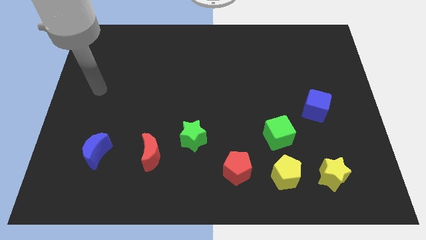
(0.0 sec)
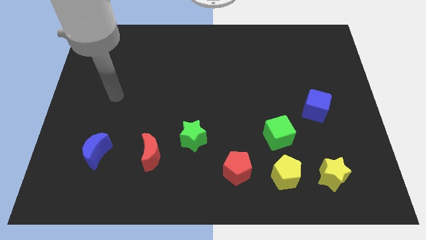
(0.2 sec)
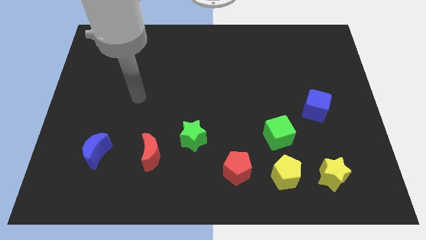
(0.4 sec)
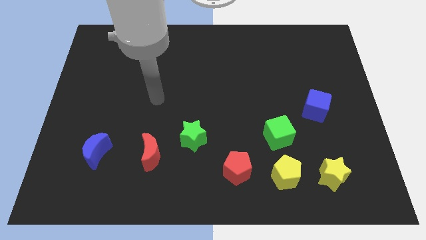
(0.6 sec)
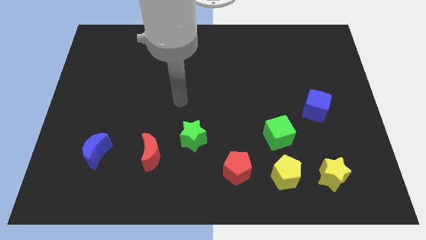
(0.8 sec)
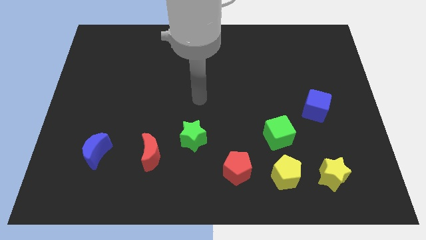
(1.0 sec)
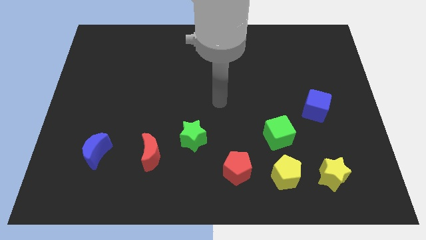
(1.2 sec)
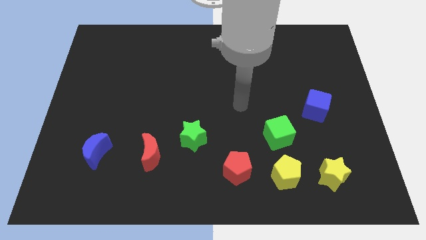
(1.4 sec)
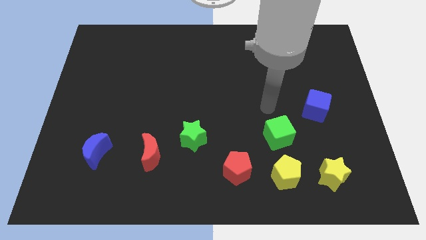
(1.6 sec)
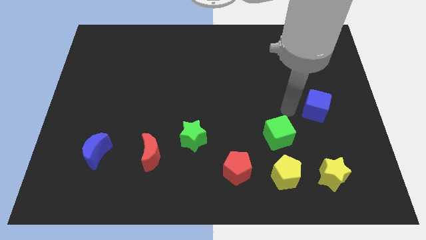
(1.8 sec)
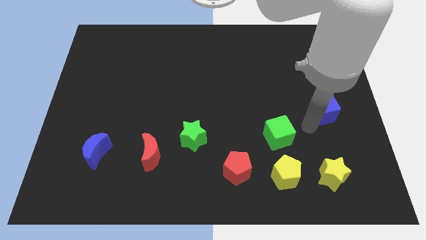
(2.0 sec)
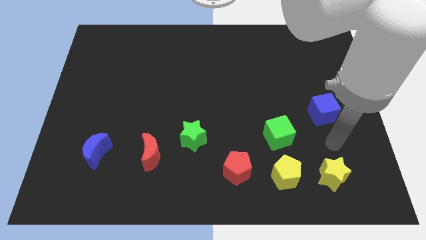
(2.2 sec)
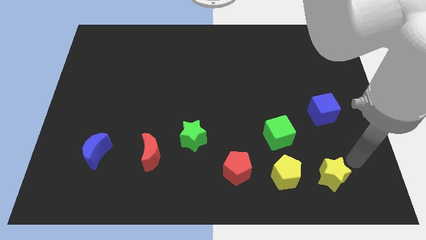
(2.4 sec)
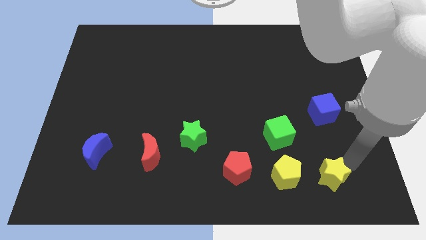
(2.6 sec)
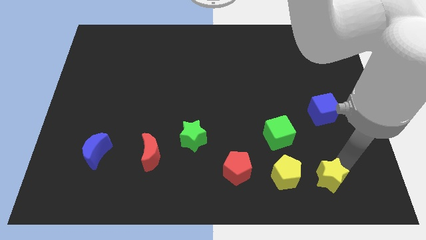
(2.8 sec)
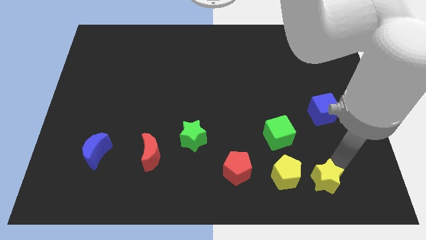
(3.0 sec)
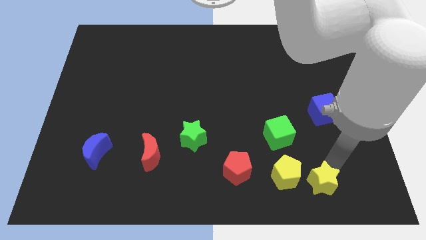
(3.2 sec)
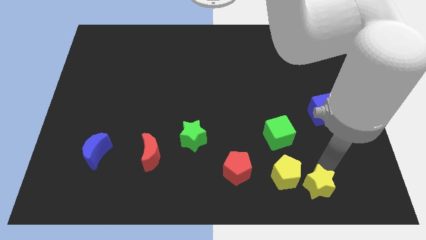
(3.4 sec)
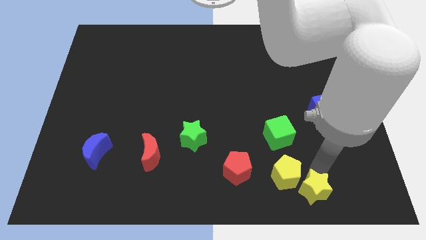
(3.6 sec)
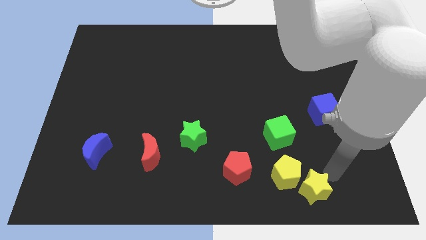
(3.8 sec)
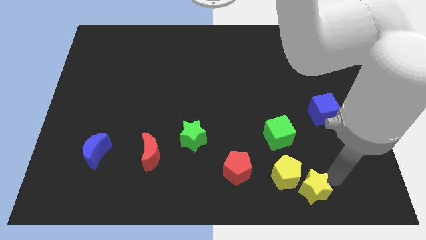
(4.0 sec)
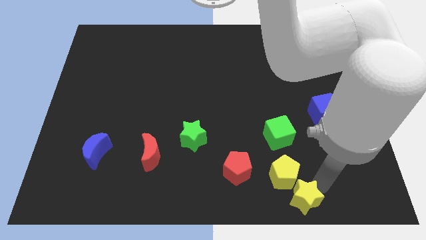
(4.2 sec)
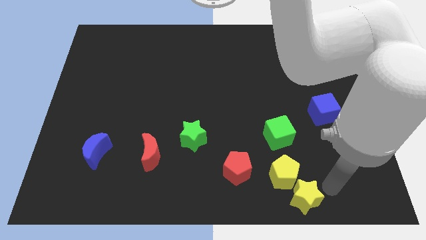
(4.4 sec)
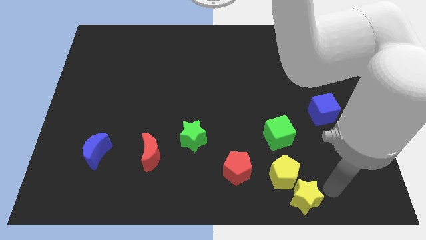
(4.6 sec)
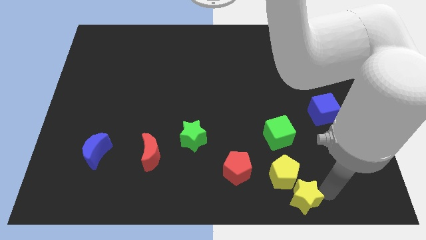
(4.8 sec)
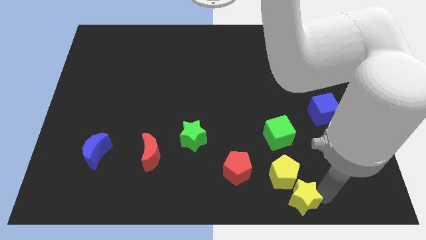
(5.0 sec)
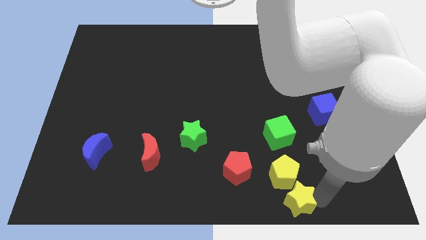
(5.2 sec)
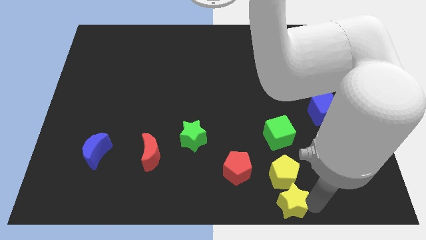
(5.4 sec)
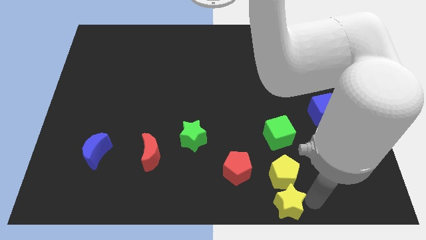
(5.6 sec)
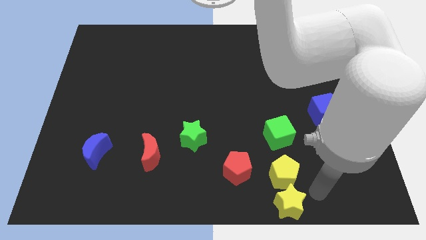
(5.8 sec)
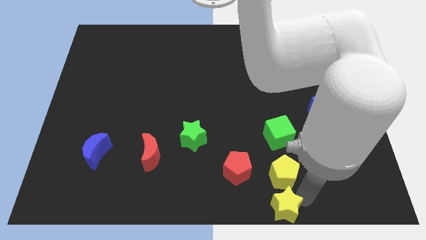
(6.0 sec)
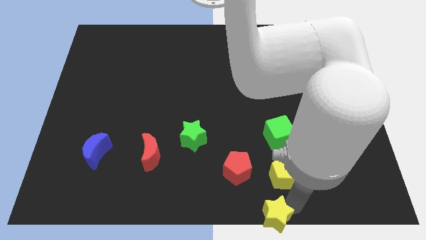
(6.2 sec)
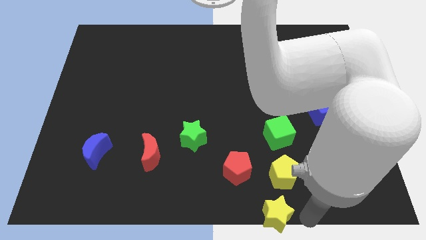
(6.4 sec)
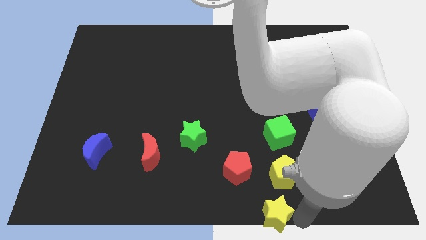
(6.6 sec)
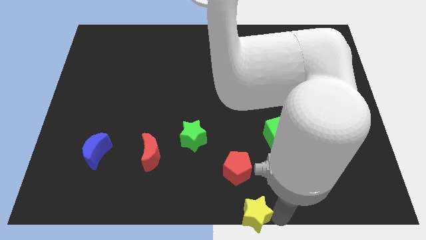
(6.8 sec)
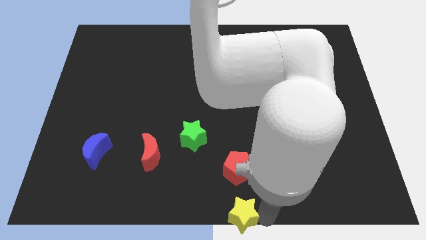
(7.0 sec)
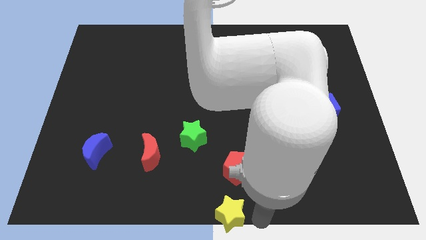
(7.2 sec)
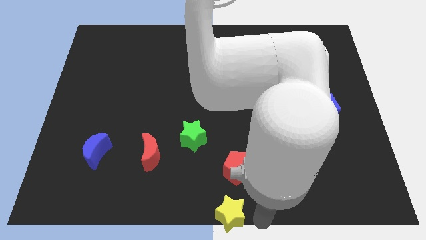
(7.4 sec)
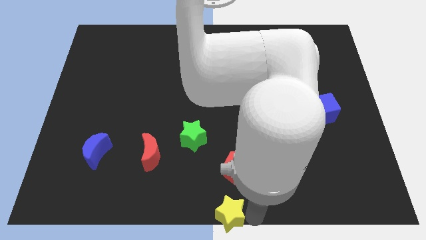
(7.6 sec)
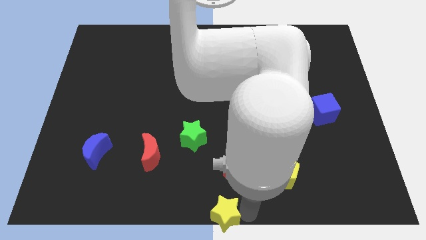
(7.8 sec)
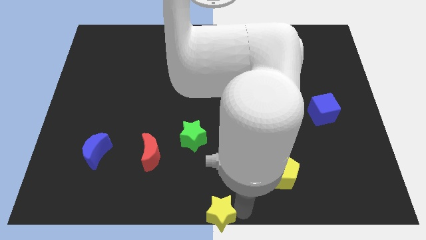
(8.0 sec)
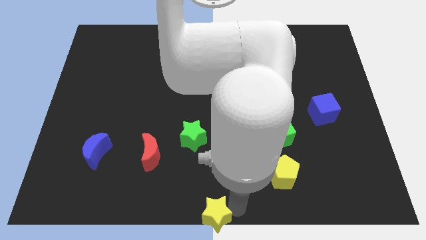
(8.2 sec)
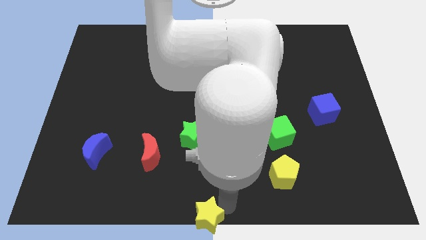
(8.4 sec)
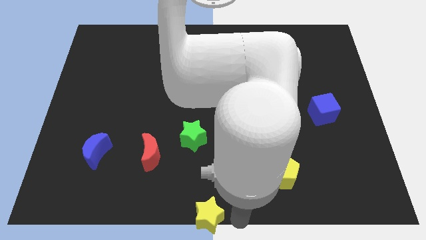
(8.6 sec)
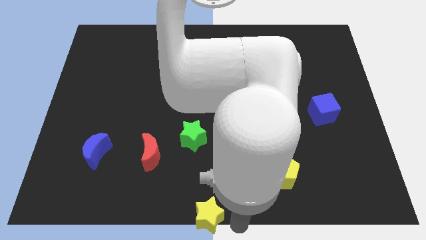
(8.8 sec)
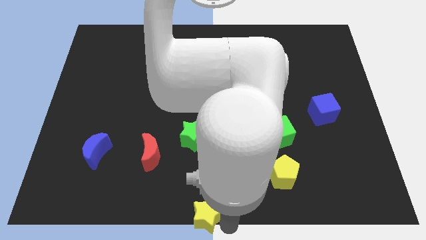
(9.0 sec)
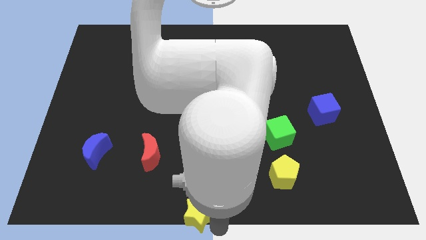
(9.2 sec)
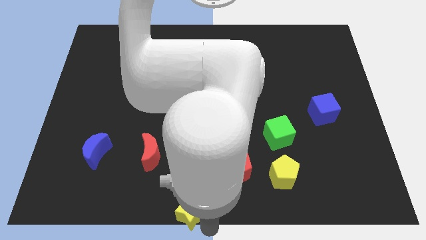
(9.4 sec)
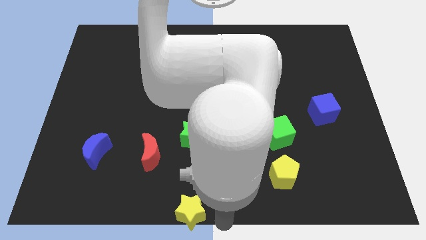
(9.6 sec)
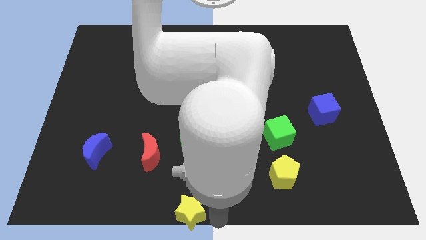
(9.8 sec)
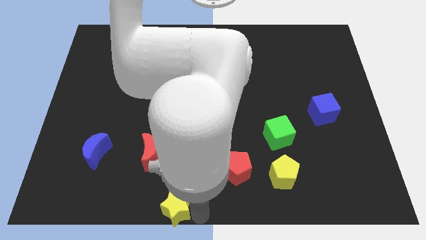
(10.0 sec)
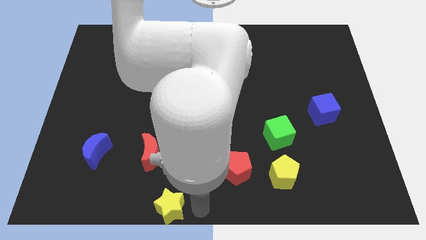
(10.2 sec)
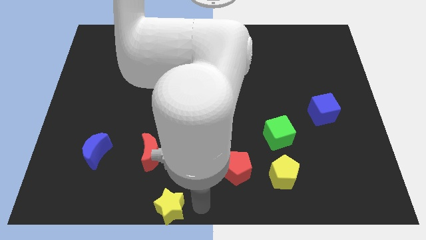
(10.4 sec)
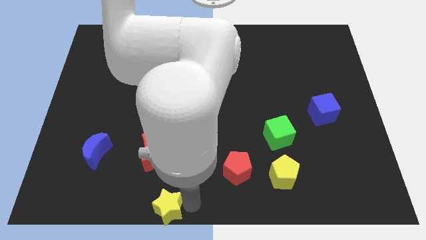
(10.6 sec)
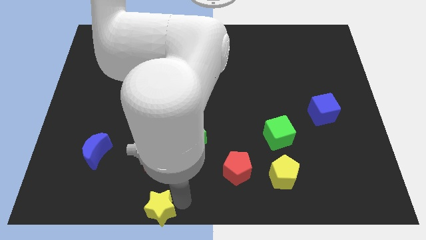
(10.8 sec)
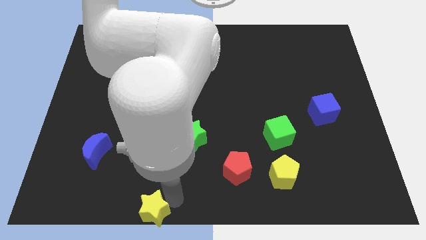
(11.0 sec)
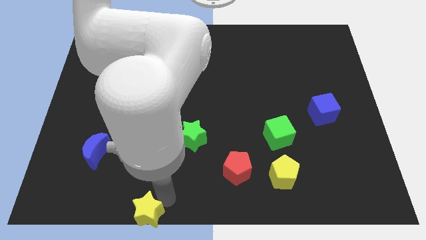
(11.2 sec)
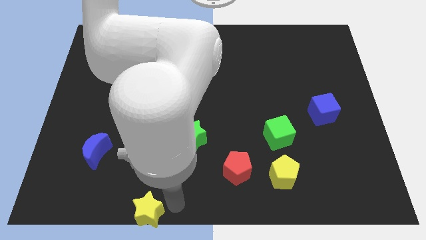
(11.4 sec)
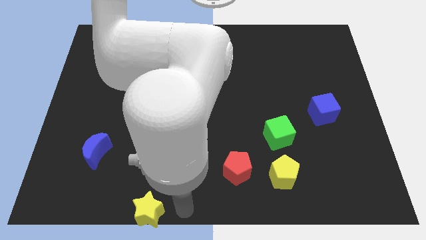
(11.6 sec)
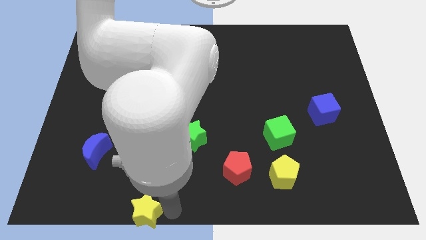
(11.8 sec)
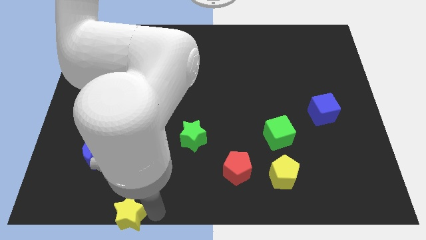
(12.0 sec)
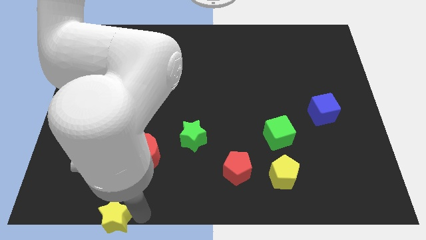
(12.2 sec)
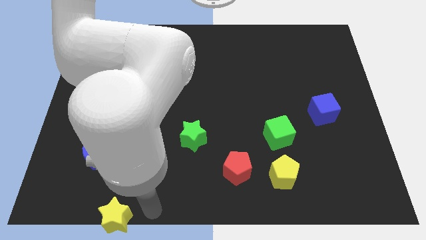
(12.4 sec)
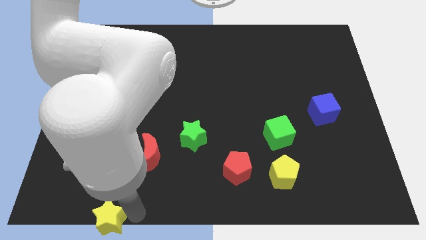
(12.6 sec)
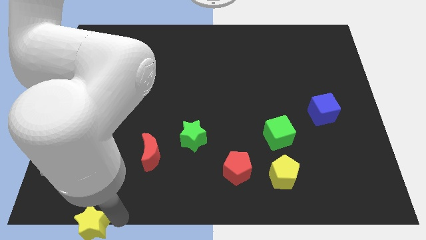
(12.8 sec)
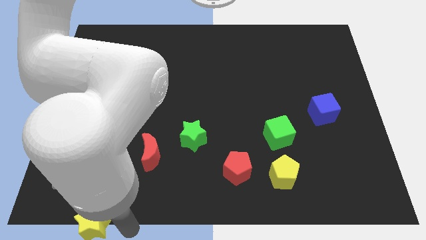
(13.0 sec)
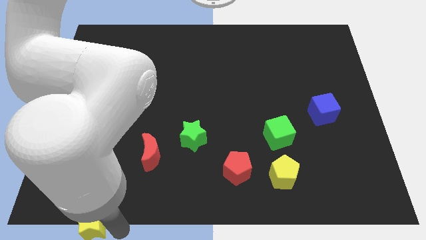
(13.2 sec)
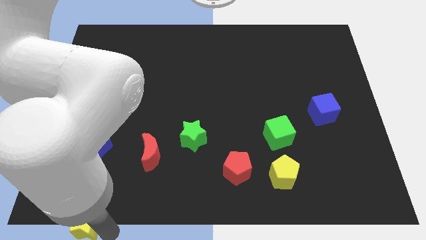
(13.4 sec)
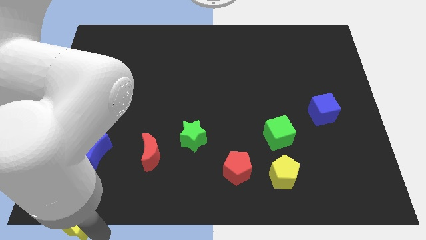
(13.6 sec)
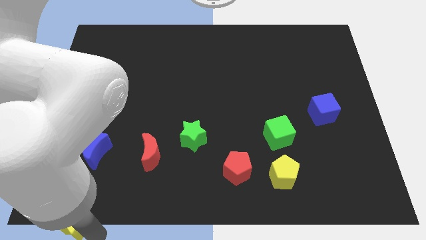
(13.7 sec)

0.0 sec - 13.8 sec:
slide the yellow star to the bottom left of the board
